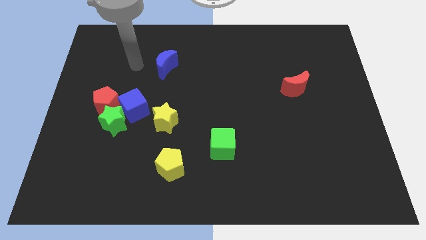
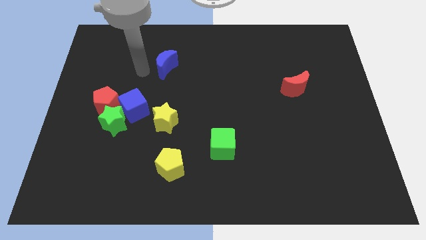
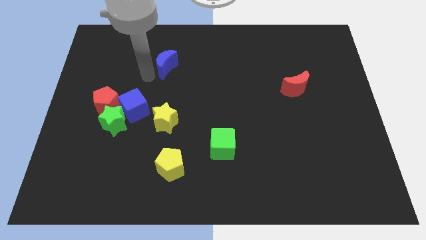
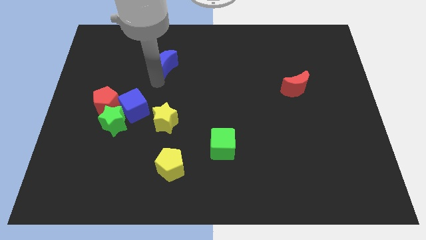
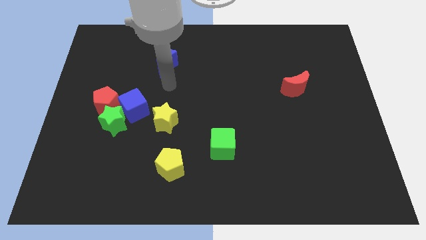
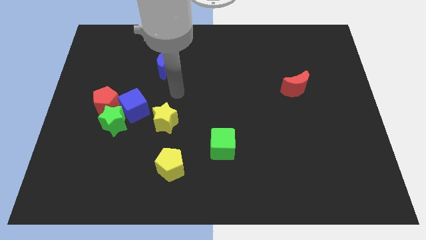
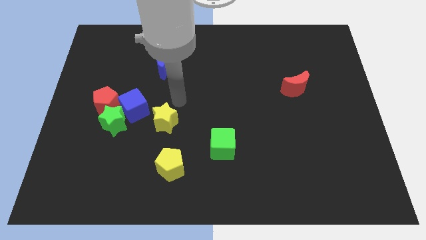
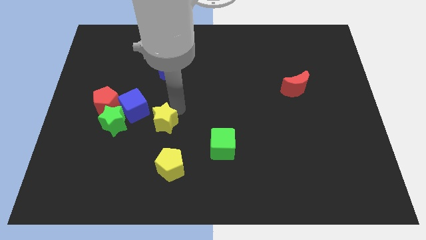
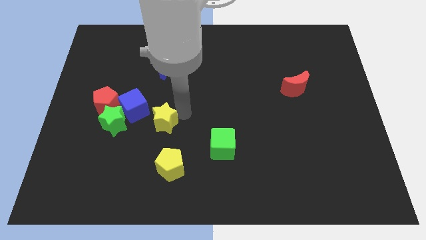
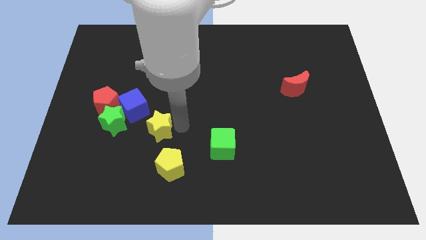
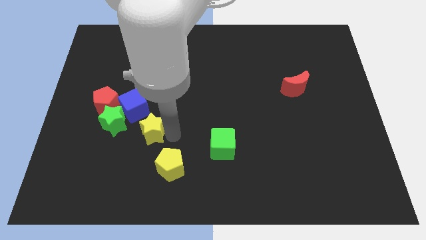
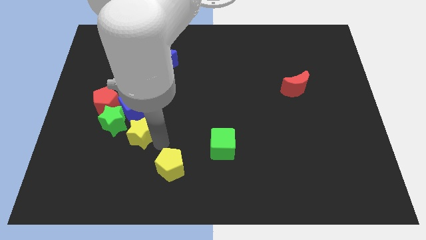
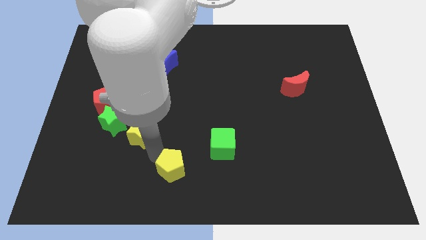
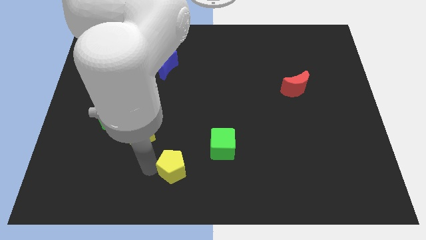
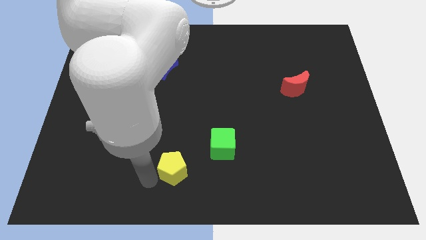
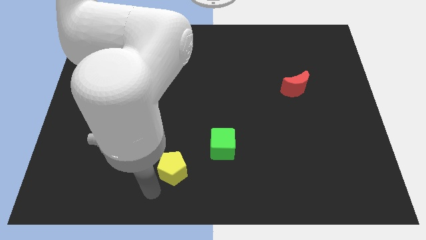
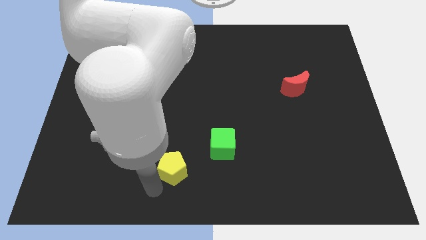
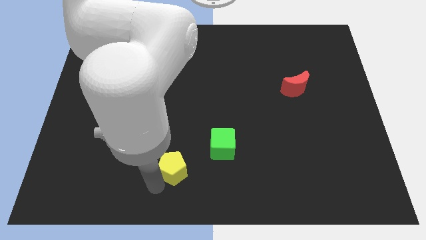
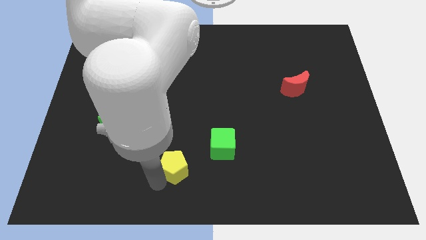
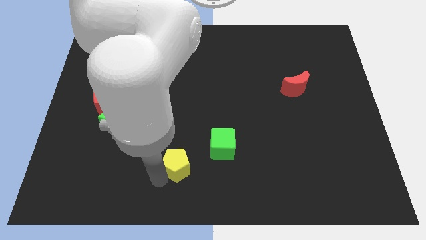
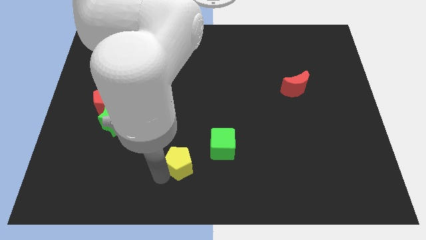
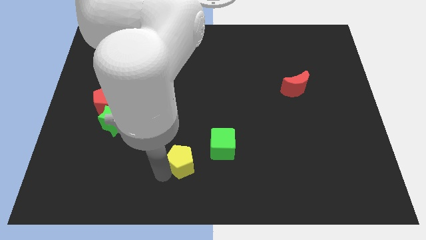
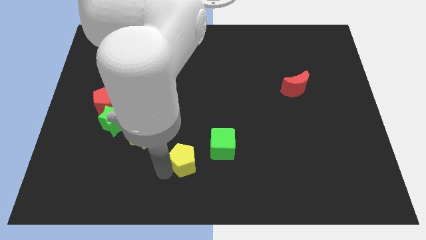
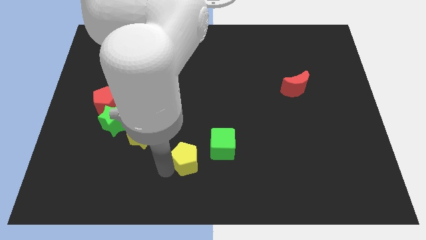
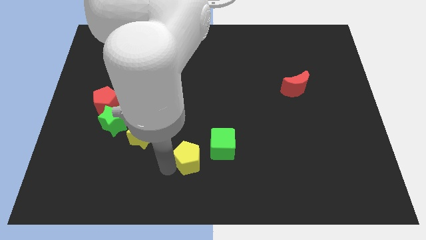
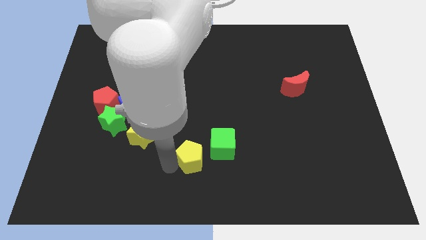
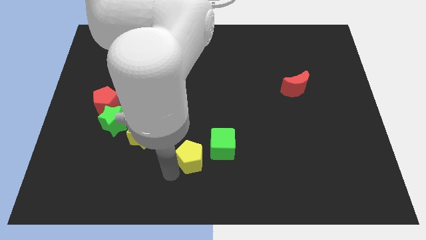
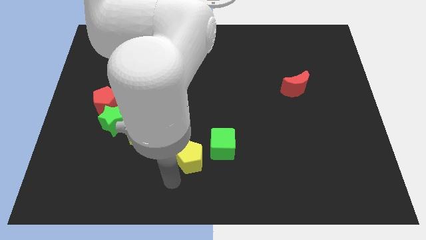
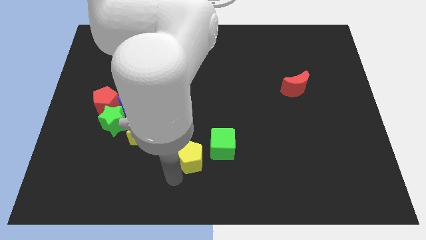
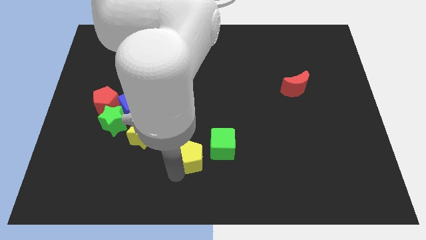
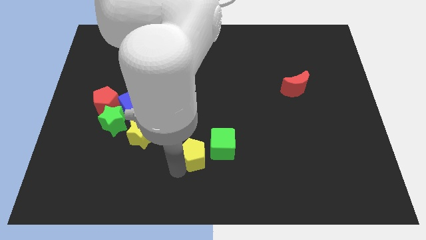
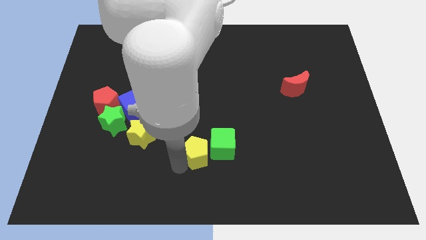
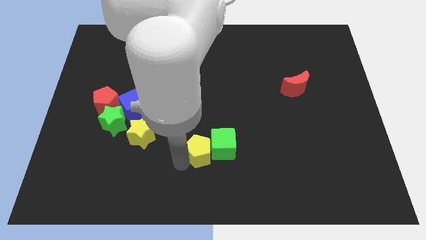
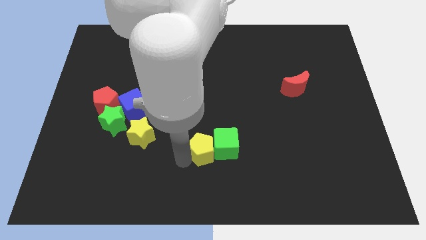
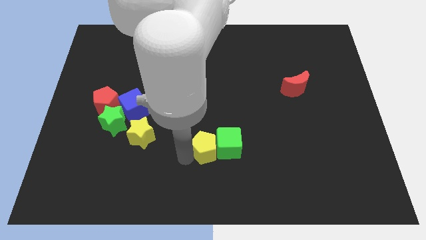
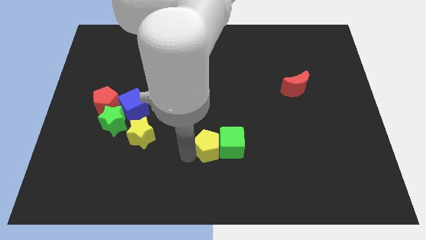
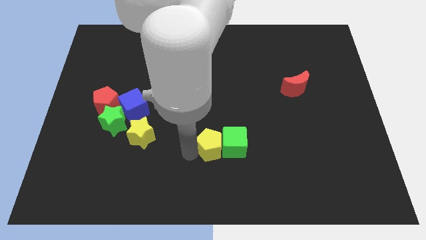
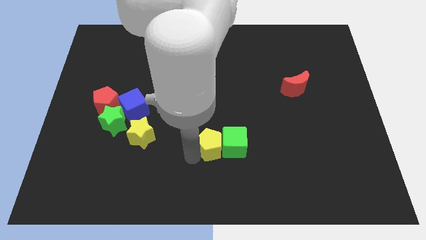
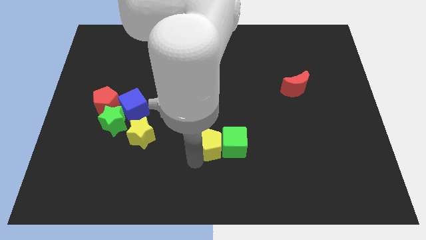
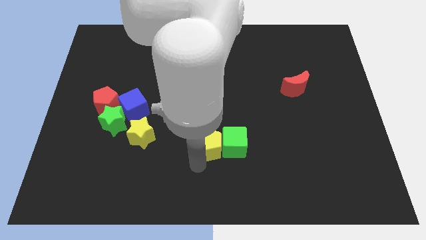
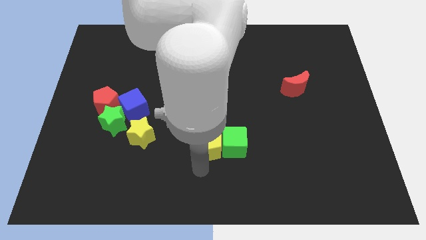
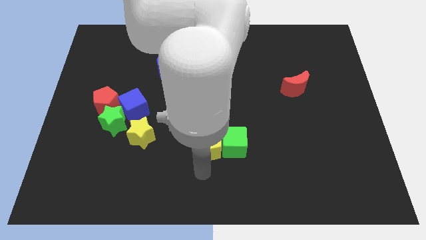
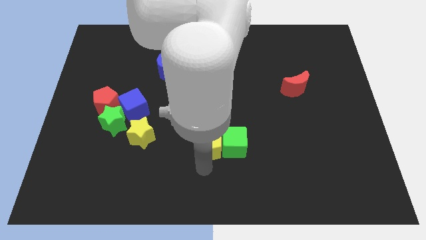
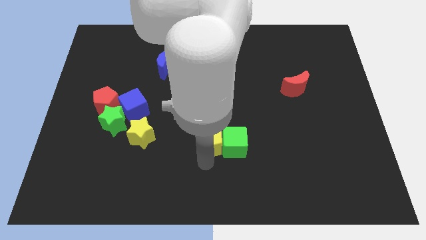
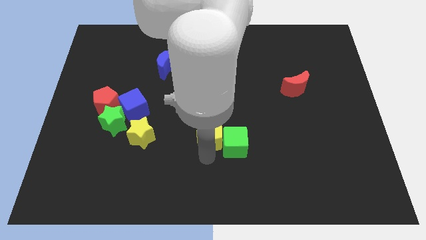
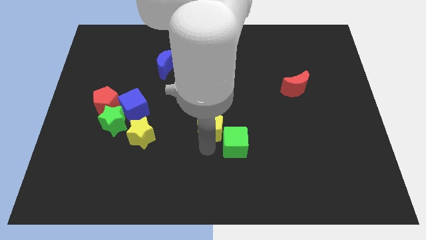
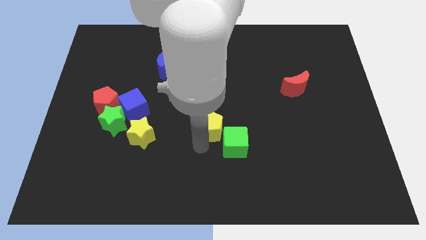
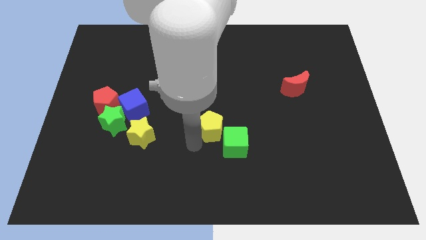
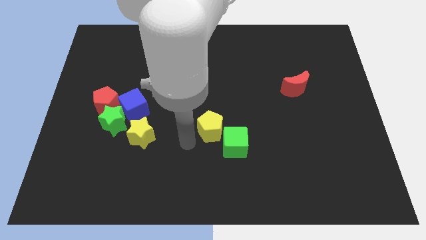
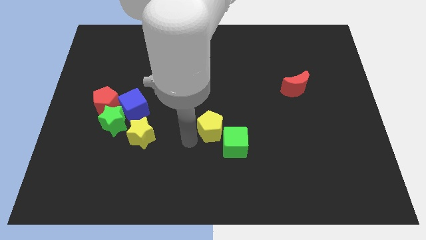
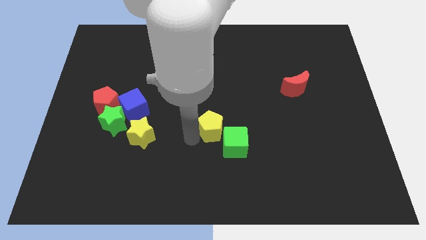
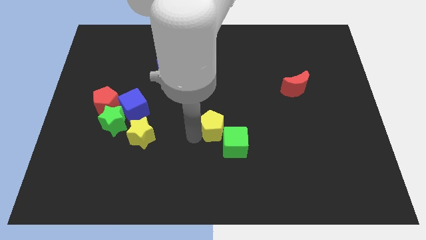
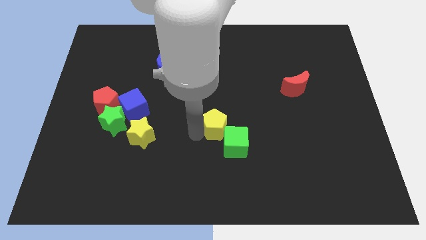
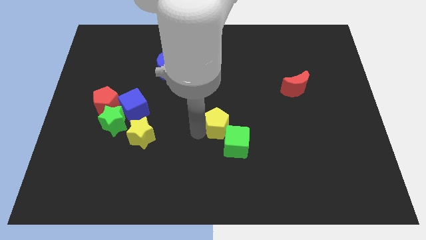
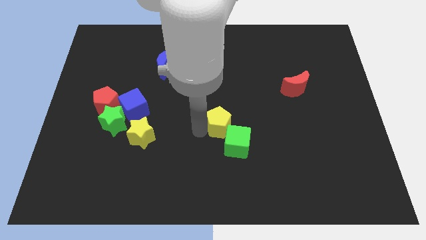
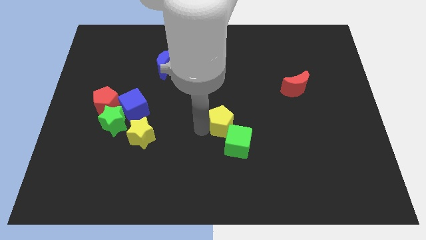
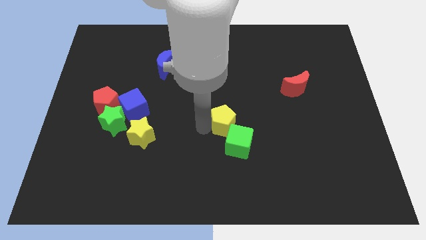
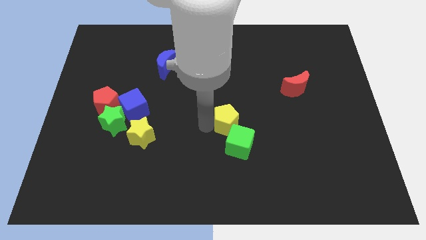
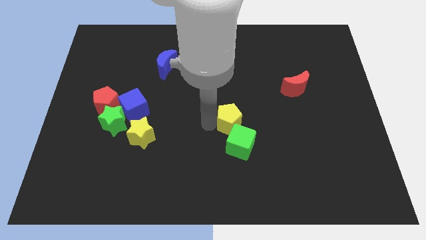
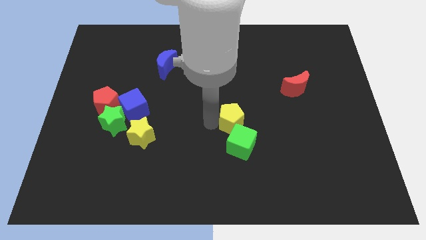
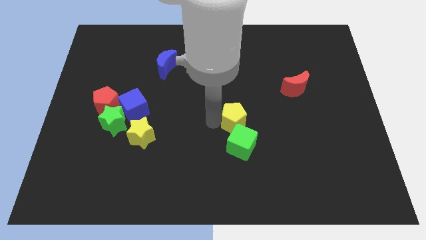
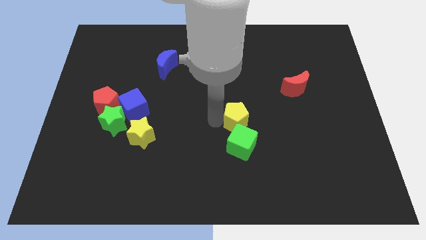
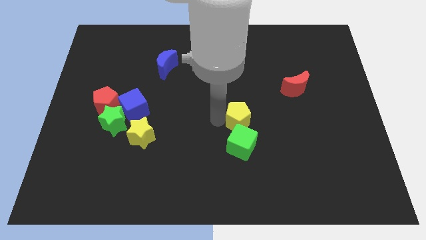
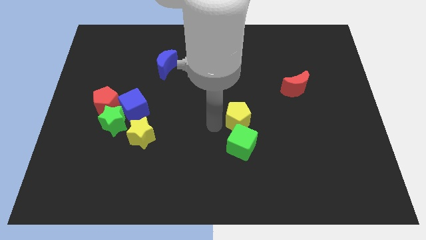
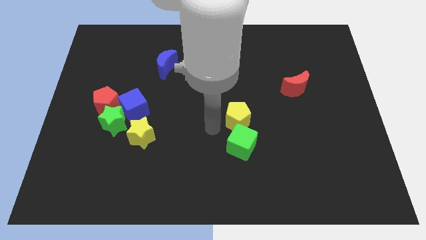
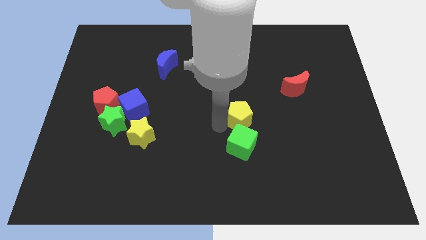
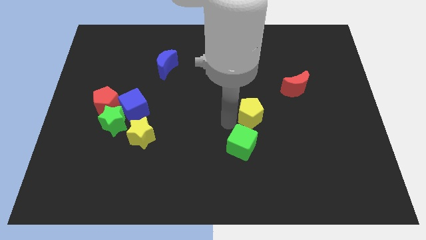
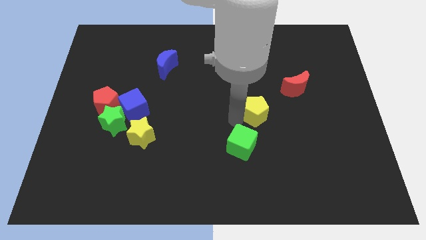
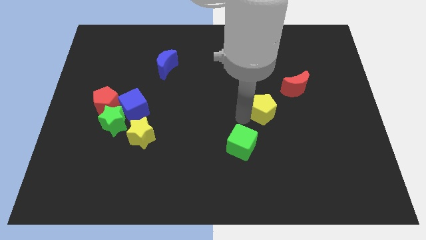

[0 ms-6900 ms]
slide the yellow pentagon diagonally down and to the left of the red moon
